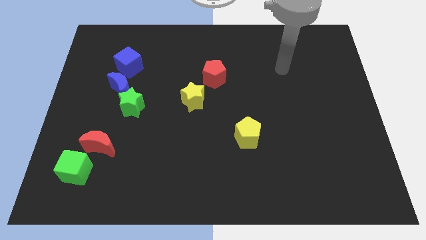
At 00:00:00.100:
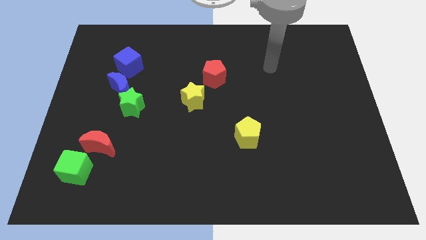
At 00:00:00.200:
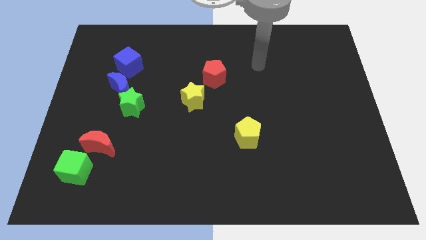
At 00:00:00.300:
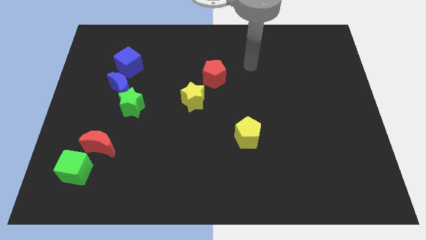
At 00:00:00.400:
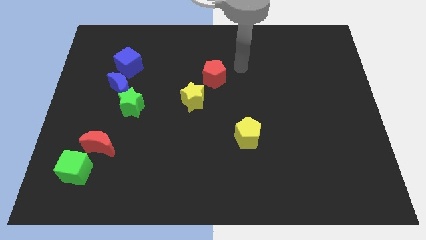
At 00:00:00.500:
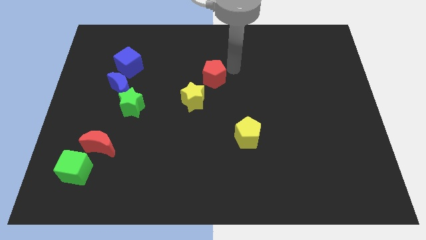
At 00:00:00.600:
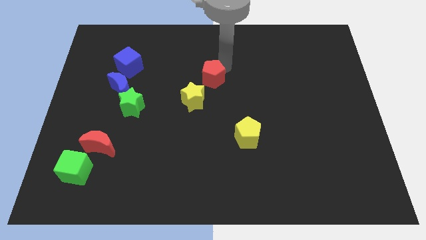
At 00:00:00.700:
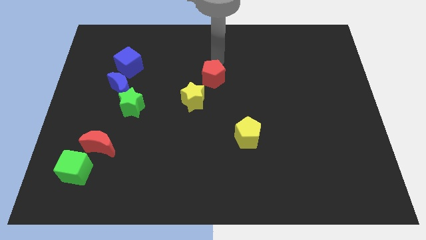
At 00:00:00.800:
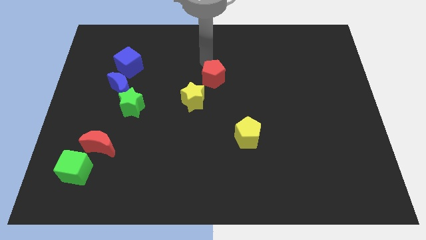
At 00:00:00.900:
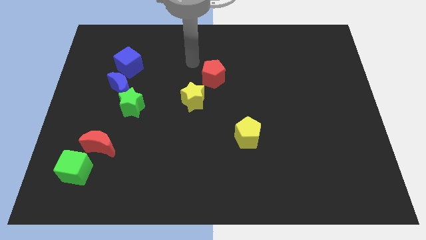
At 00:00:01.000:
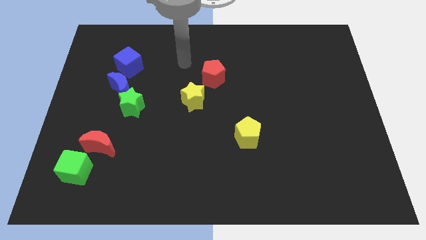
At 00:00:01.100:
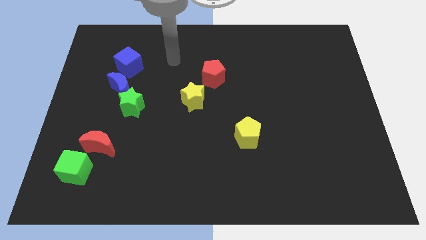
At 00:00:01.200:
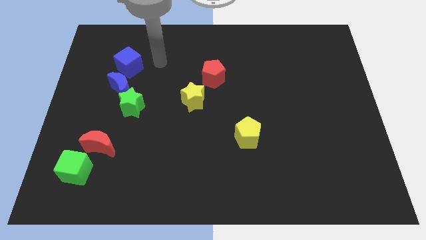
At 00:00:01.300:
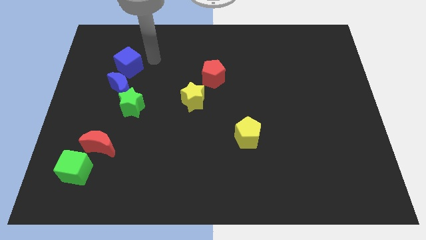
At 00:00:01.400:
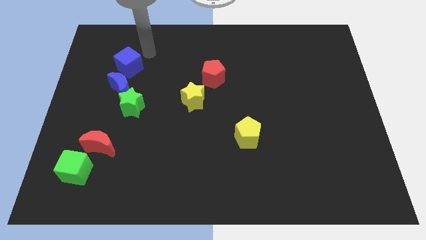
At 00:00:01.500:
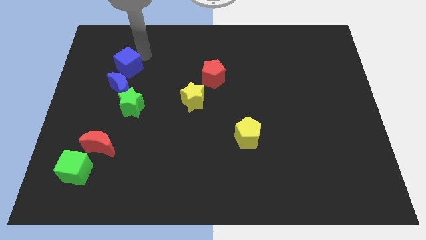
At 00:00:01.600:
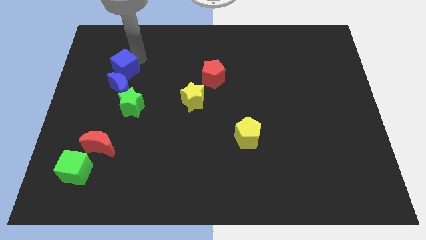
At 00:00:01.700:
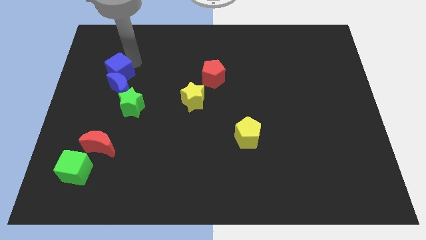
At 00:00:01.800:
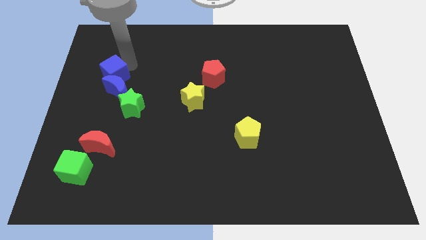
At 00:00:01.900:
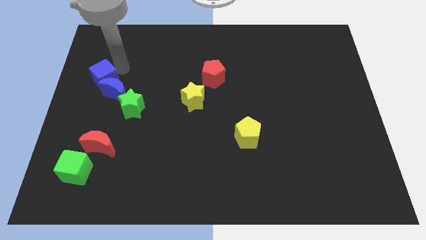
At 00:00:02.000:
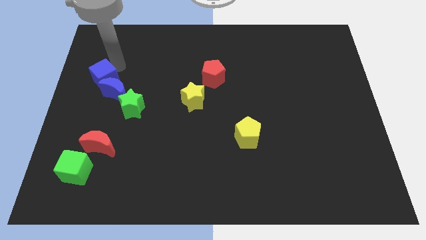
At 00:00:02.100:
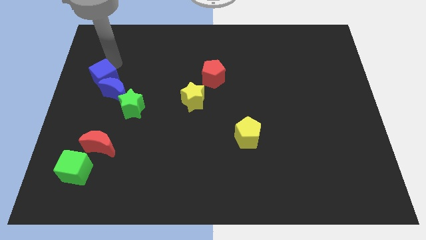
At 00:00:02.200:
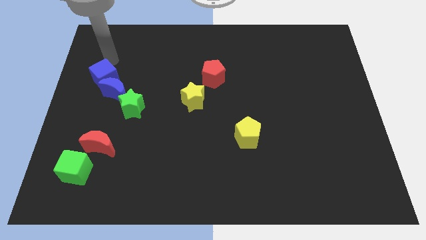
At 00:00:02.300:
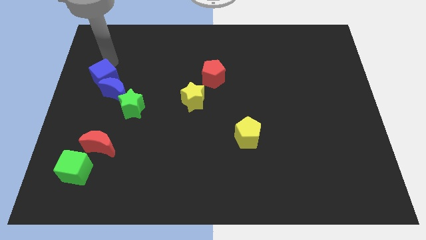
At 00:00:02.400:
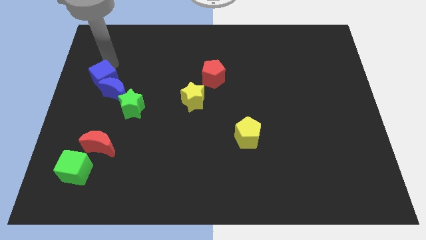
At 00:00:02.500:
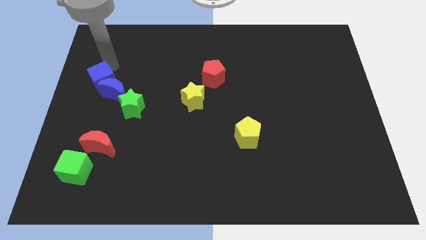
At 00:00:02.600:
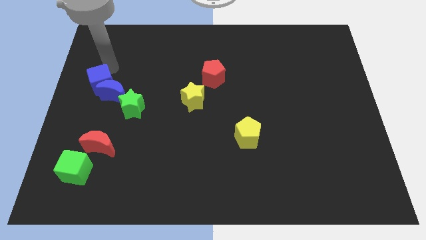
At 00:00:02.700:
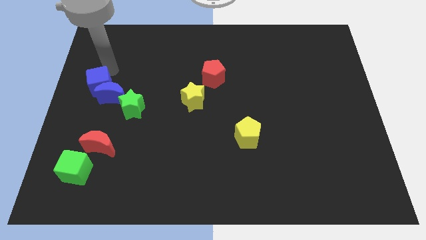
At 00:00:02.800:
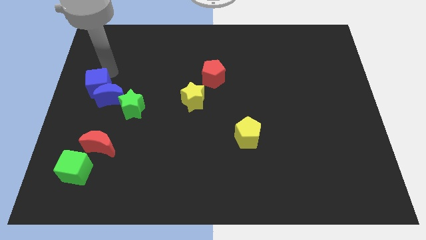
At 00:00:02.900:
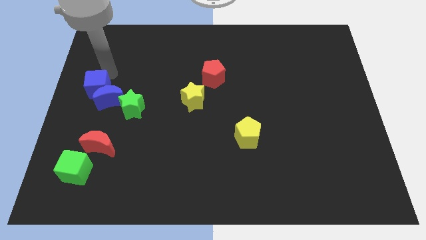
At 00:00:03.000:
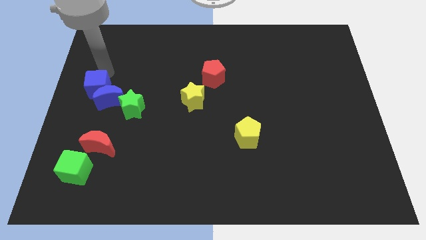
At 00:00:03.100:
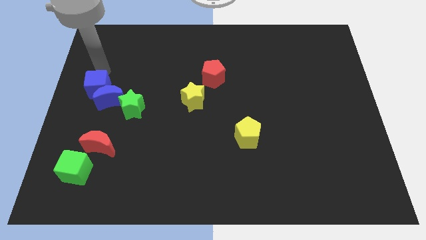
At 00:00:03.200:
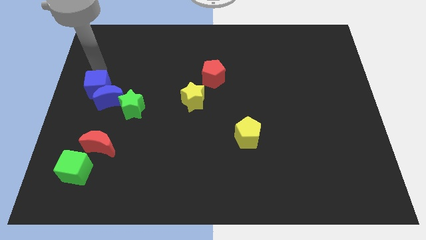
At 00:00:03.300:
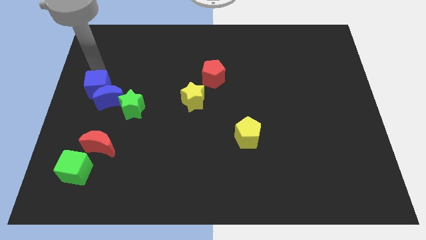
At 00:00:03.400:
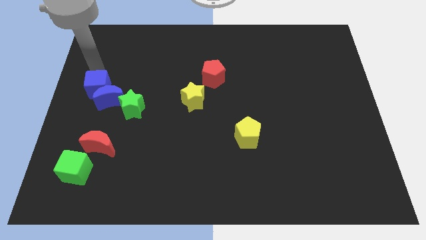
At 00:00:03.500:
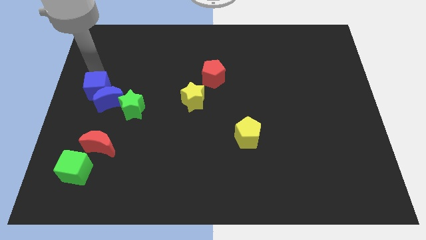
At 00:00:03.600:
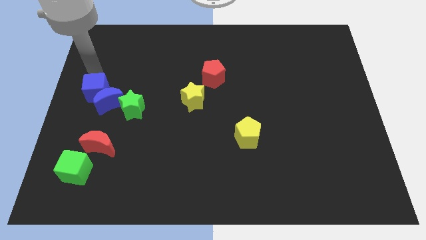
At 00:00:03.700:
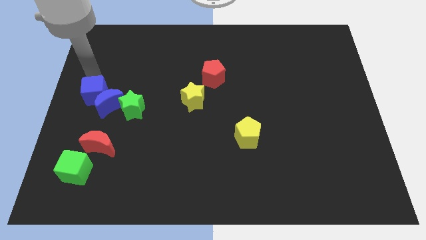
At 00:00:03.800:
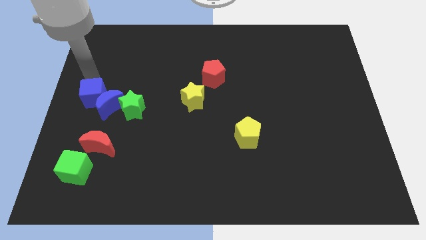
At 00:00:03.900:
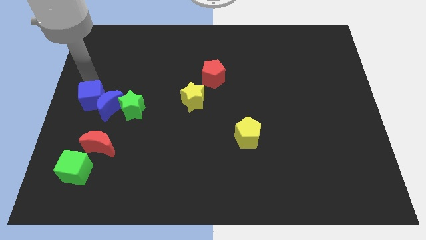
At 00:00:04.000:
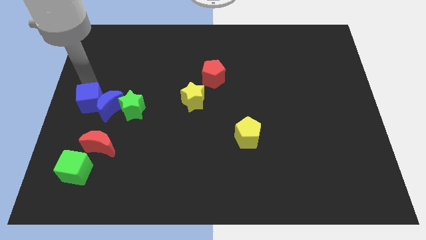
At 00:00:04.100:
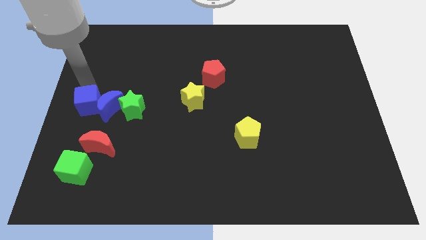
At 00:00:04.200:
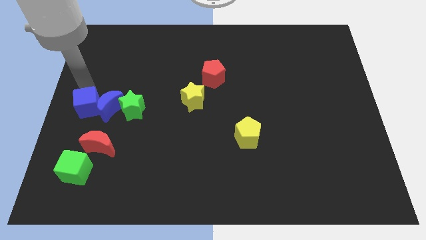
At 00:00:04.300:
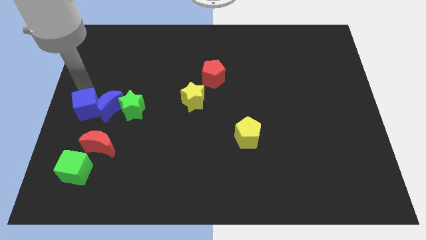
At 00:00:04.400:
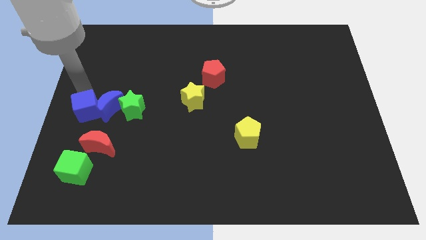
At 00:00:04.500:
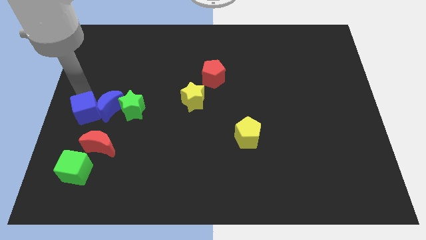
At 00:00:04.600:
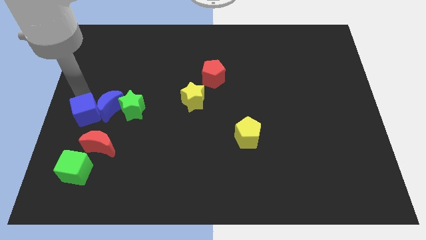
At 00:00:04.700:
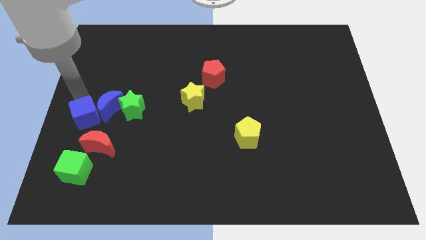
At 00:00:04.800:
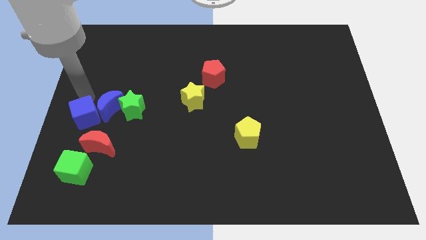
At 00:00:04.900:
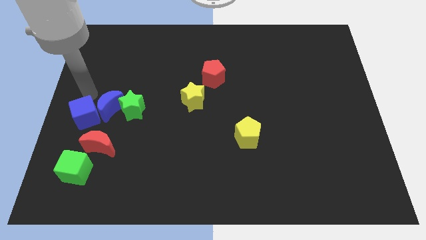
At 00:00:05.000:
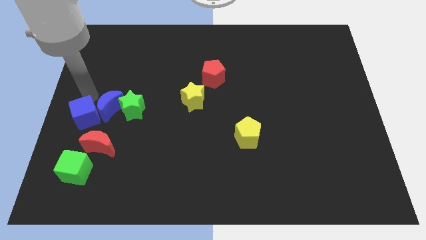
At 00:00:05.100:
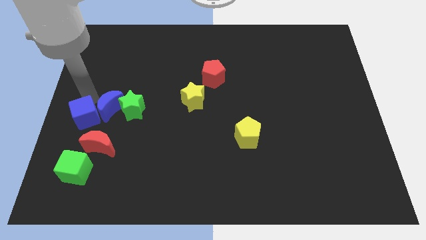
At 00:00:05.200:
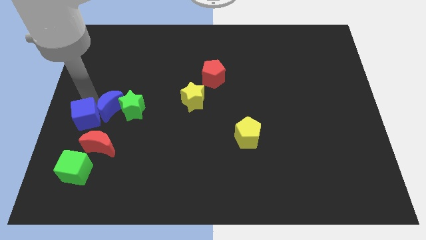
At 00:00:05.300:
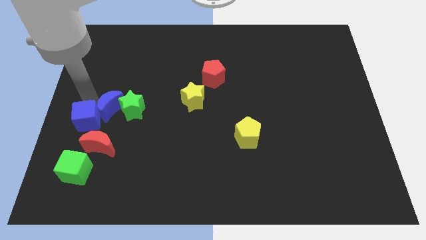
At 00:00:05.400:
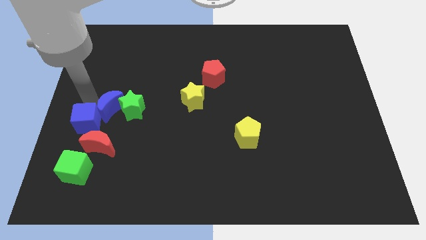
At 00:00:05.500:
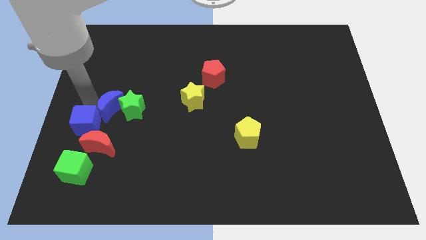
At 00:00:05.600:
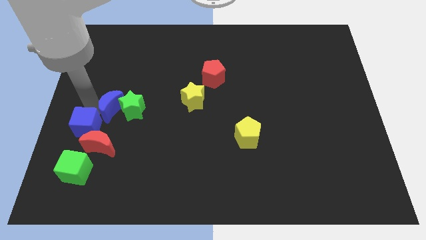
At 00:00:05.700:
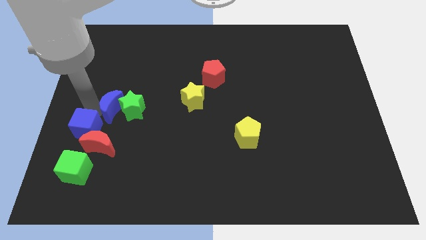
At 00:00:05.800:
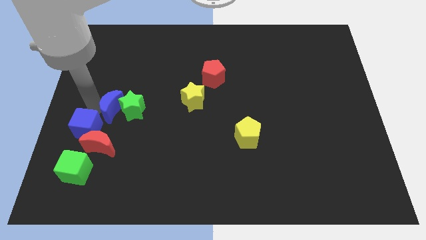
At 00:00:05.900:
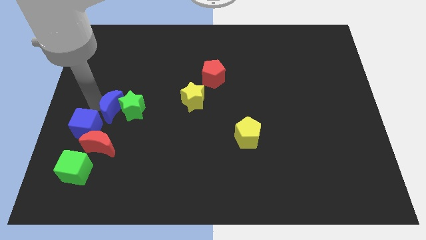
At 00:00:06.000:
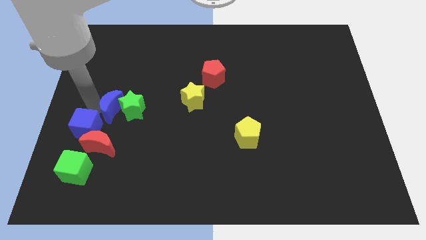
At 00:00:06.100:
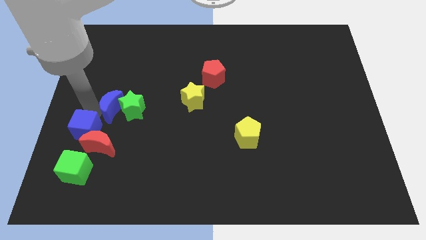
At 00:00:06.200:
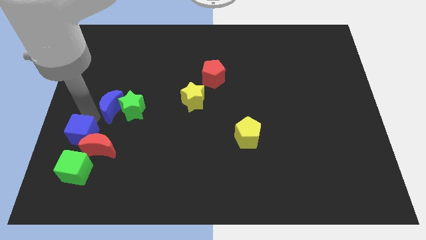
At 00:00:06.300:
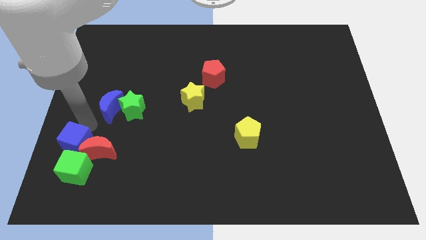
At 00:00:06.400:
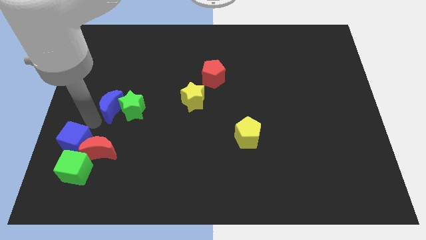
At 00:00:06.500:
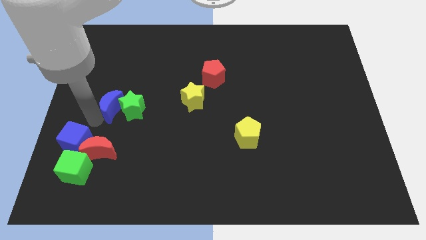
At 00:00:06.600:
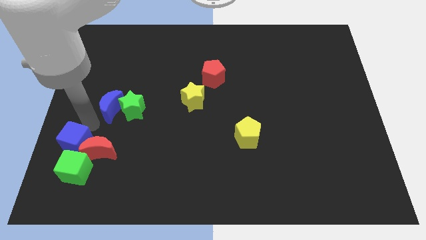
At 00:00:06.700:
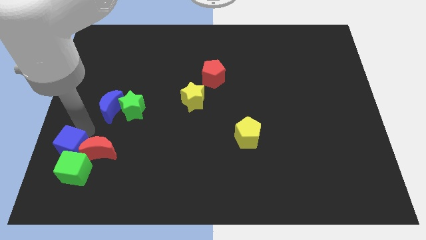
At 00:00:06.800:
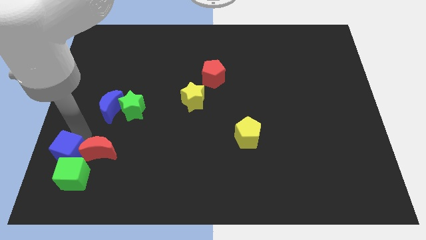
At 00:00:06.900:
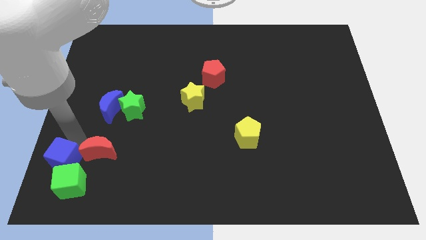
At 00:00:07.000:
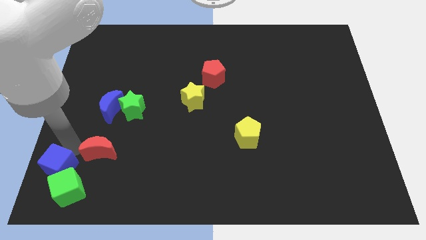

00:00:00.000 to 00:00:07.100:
put the blue cube to the bottom left
